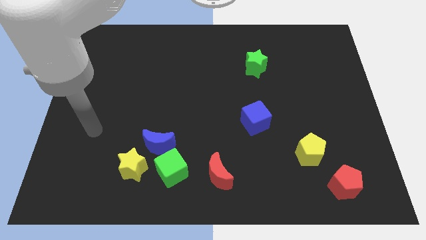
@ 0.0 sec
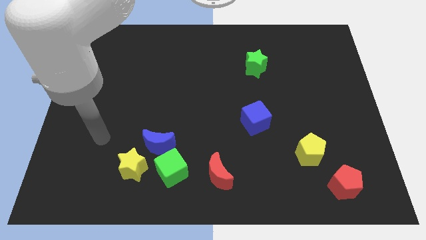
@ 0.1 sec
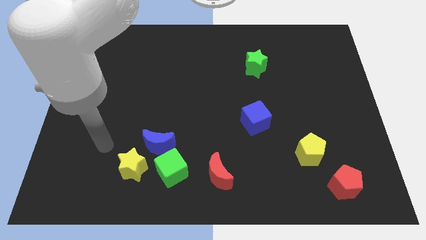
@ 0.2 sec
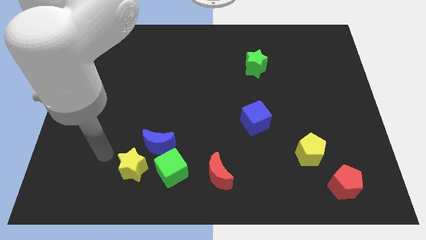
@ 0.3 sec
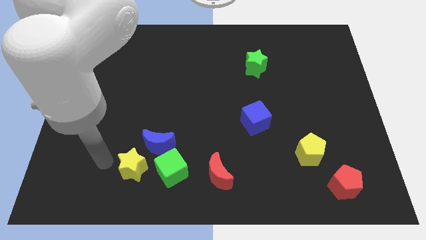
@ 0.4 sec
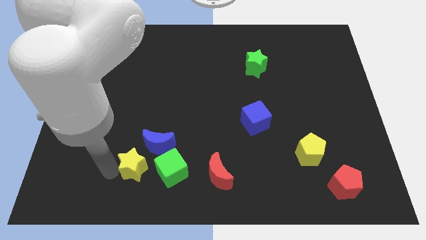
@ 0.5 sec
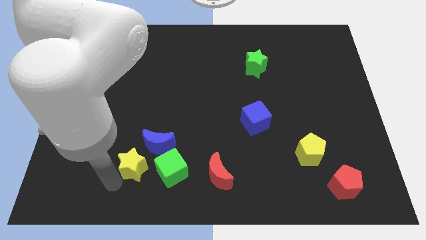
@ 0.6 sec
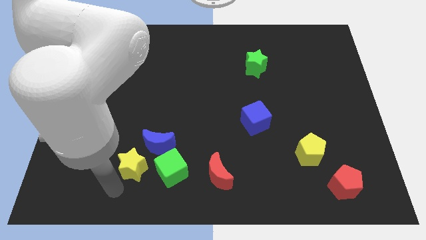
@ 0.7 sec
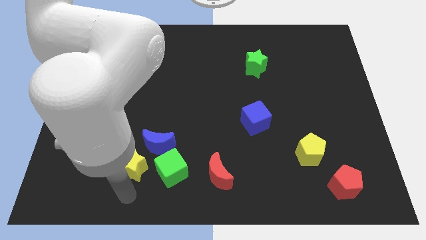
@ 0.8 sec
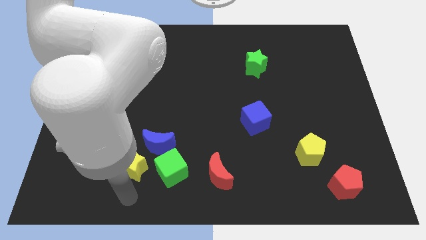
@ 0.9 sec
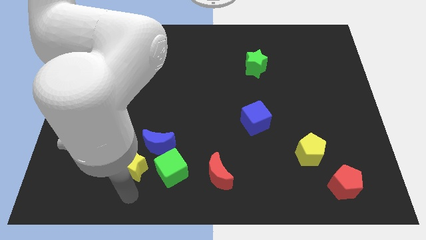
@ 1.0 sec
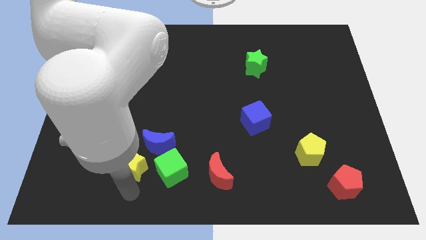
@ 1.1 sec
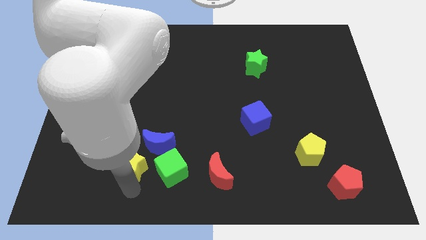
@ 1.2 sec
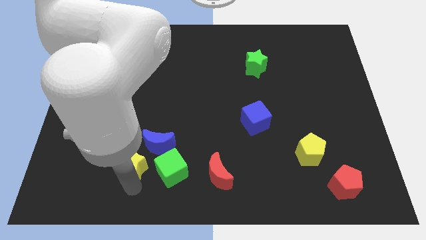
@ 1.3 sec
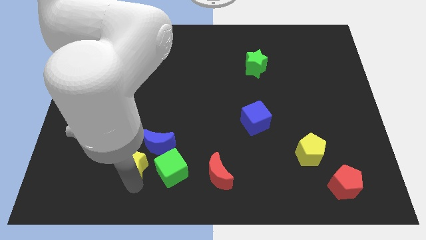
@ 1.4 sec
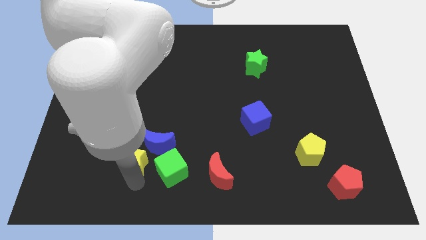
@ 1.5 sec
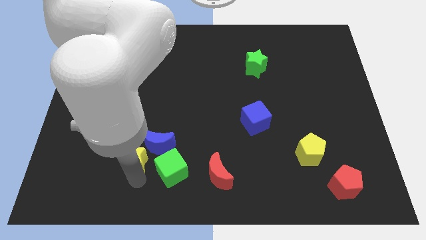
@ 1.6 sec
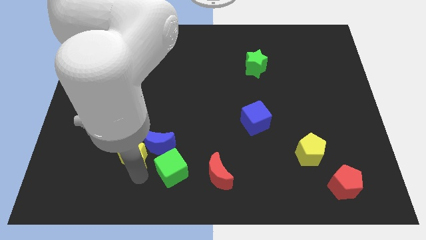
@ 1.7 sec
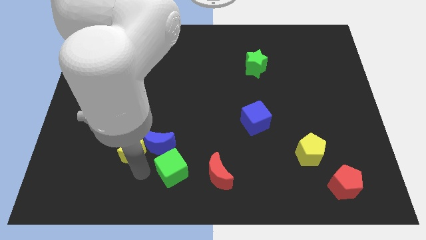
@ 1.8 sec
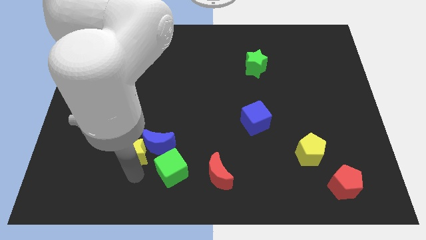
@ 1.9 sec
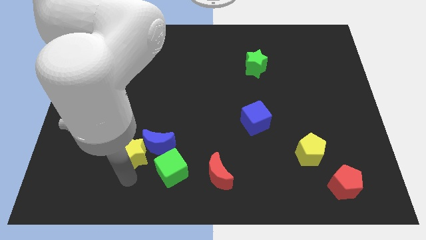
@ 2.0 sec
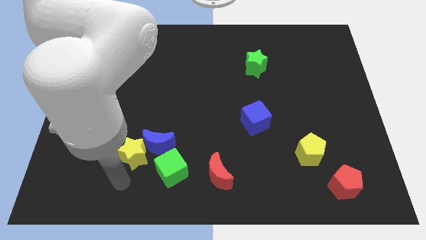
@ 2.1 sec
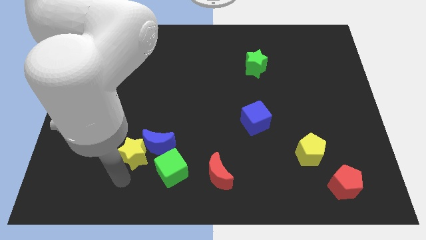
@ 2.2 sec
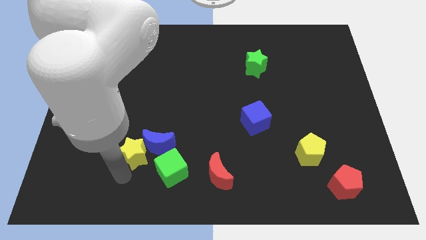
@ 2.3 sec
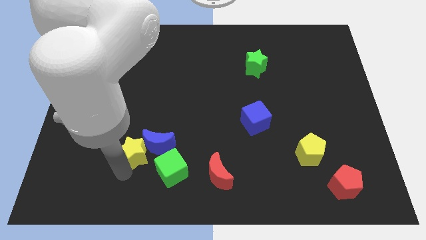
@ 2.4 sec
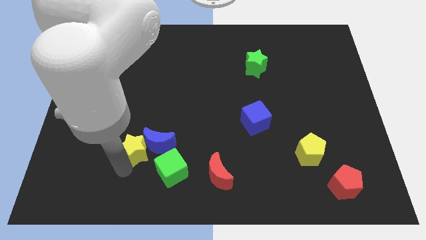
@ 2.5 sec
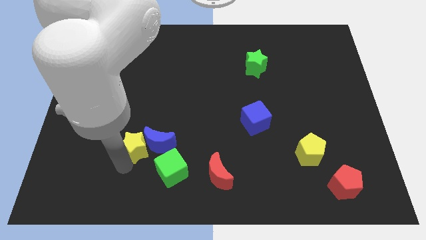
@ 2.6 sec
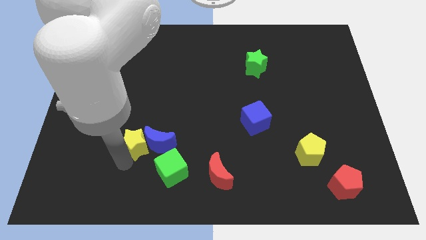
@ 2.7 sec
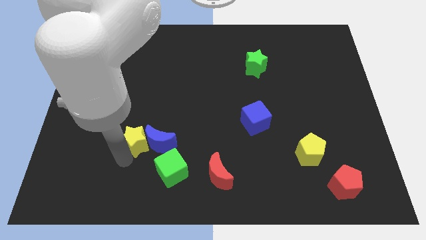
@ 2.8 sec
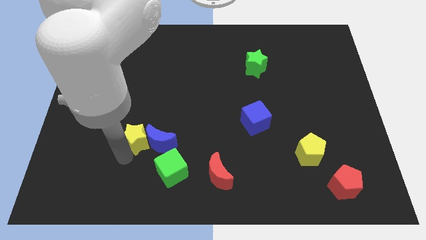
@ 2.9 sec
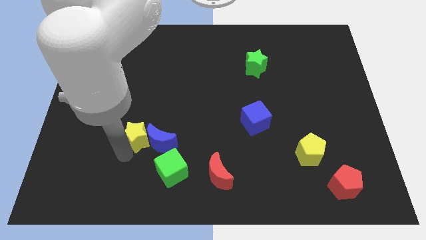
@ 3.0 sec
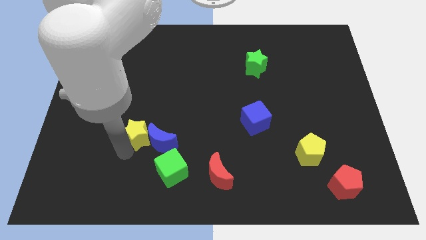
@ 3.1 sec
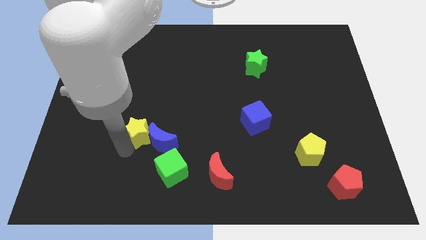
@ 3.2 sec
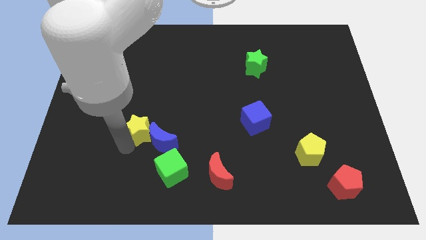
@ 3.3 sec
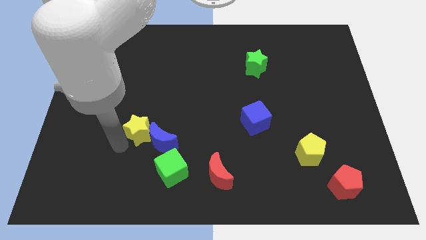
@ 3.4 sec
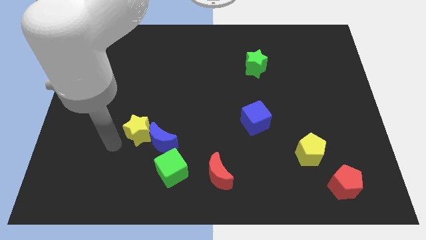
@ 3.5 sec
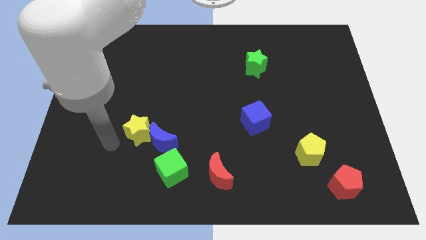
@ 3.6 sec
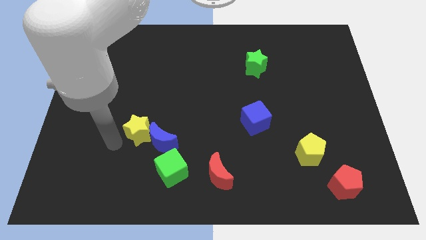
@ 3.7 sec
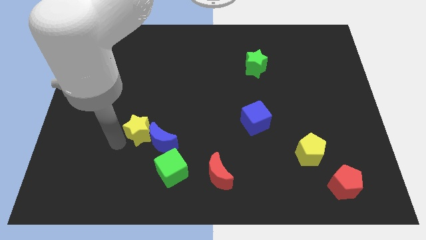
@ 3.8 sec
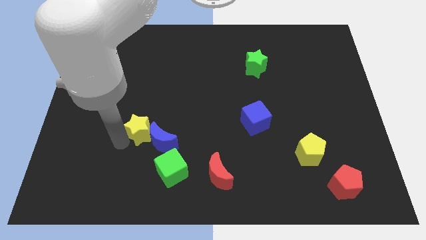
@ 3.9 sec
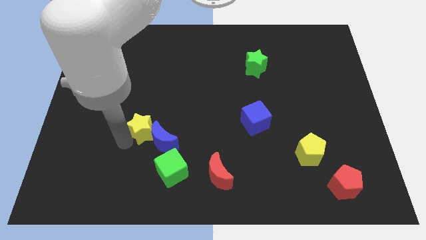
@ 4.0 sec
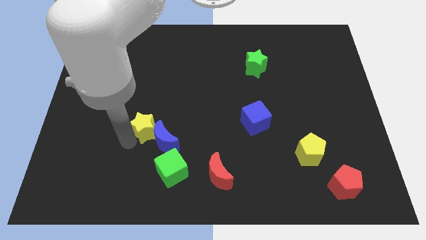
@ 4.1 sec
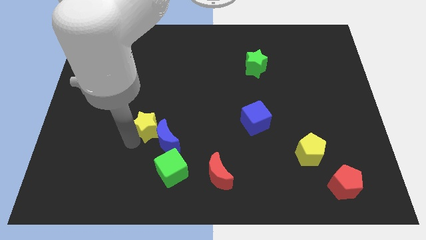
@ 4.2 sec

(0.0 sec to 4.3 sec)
move the yellow star somewhat upwards and right

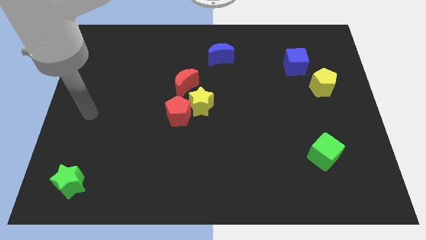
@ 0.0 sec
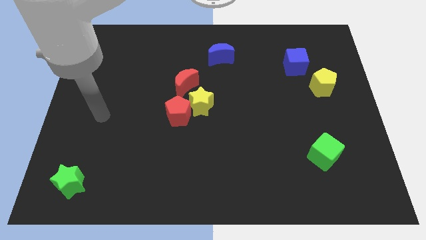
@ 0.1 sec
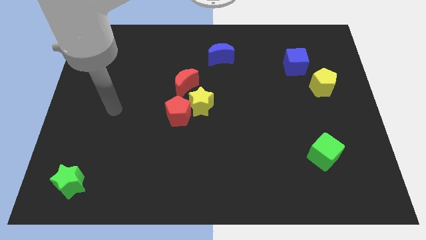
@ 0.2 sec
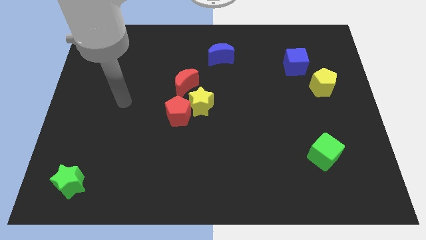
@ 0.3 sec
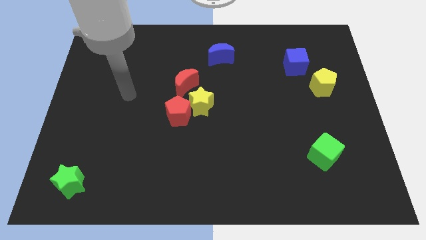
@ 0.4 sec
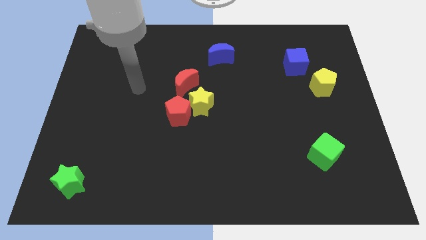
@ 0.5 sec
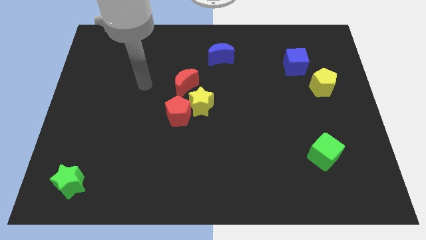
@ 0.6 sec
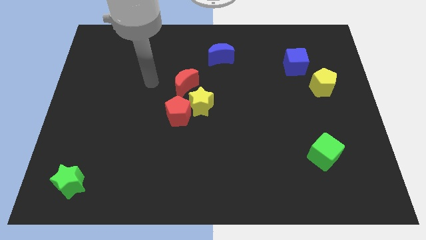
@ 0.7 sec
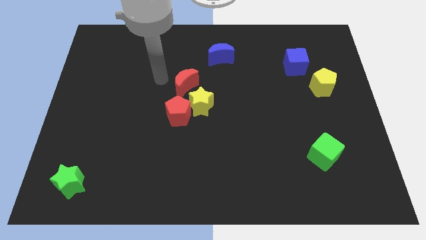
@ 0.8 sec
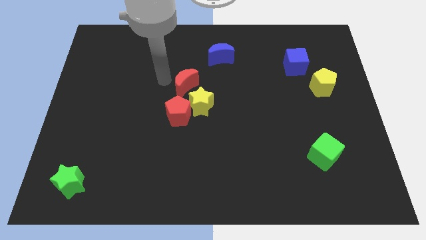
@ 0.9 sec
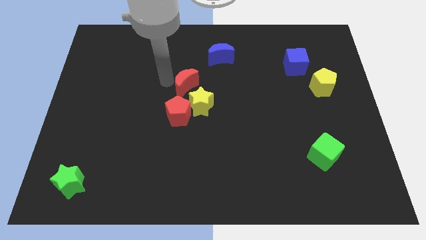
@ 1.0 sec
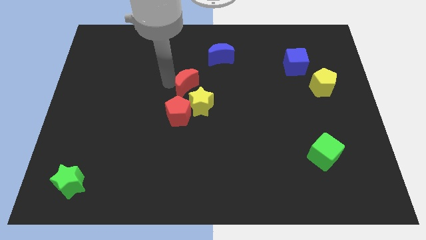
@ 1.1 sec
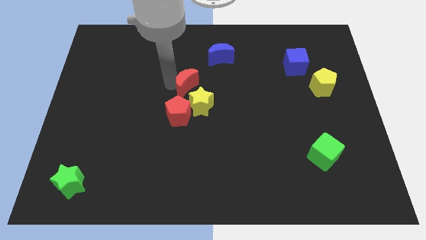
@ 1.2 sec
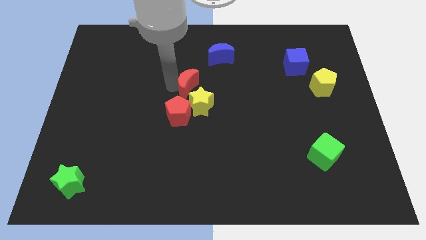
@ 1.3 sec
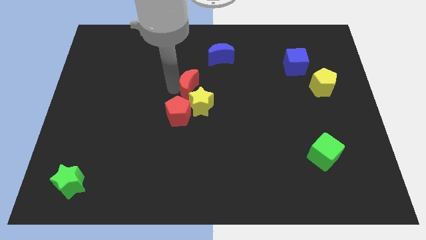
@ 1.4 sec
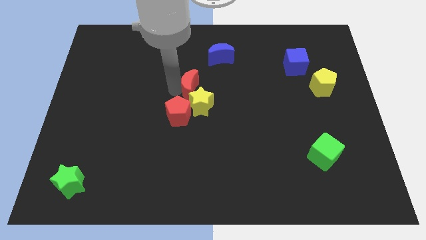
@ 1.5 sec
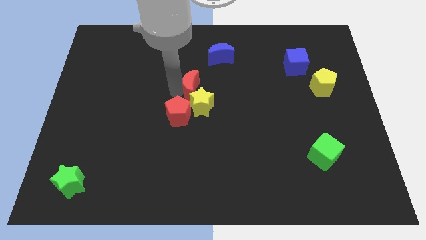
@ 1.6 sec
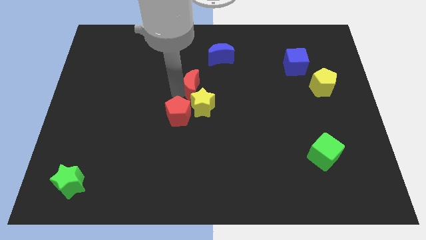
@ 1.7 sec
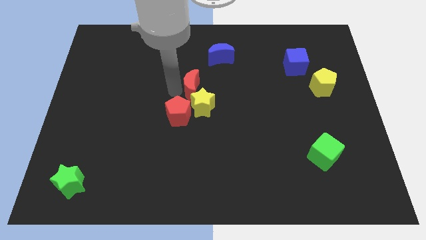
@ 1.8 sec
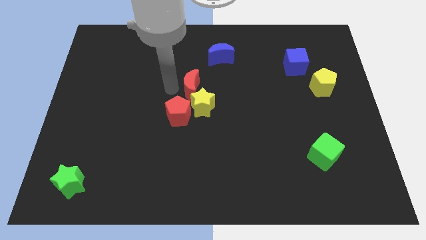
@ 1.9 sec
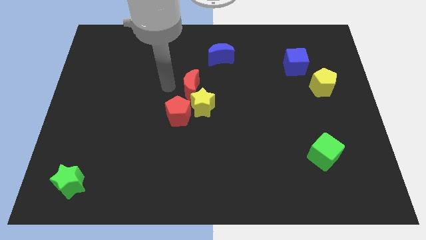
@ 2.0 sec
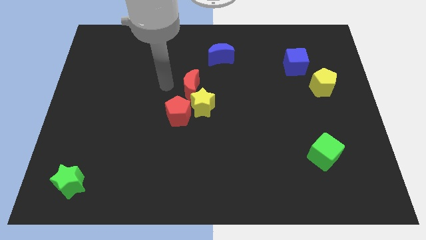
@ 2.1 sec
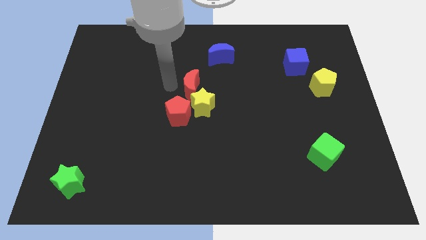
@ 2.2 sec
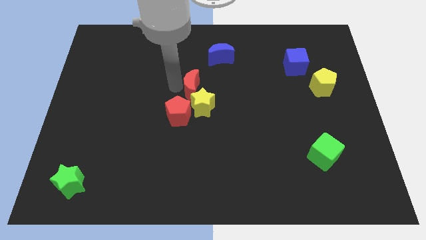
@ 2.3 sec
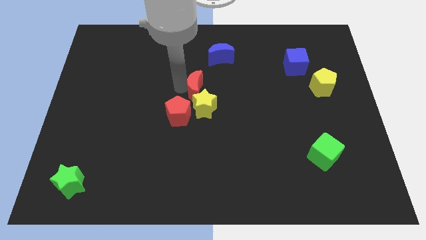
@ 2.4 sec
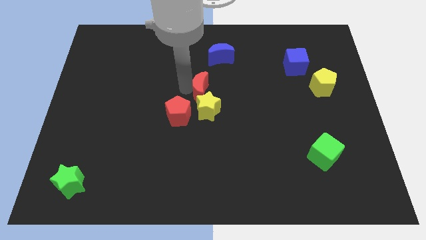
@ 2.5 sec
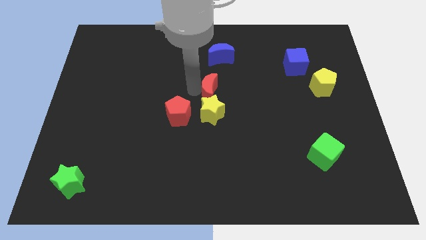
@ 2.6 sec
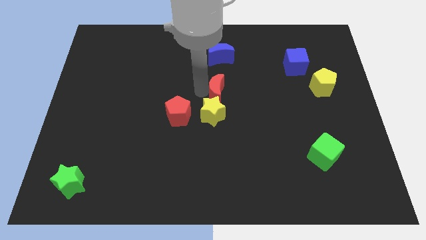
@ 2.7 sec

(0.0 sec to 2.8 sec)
slightly move the red moon down and to the right

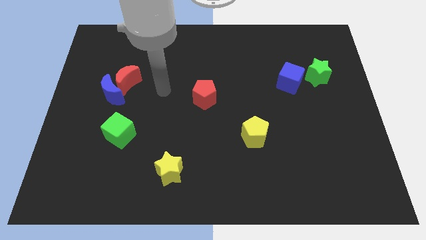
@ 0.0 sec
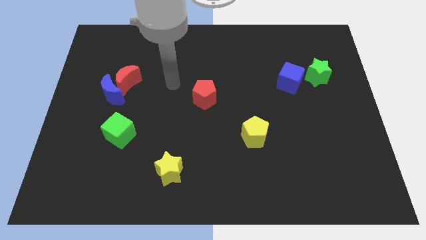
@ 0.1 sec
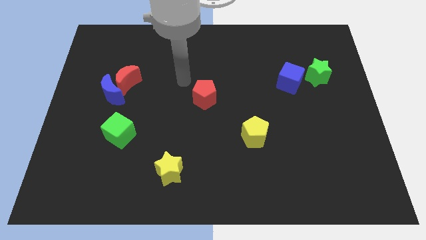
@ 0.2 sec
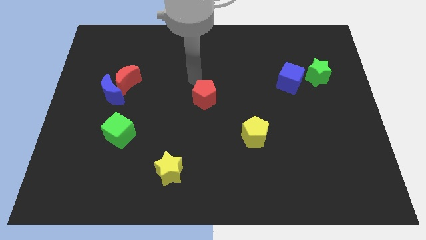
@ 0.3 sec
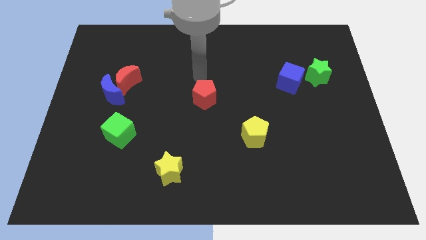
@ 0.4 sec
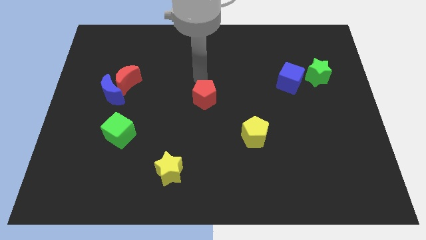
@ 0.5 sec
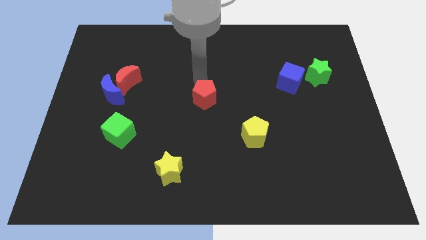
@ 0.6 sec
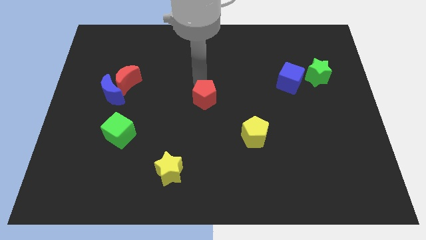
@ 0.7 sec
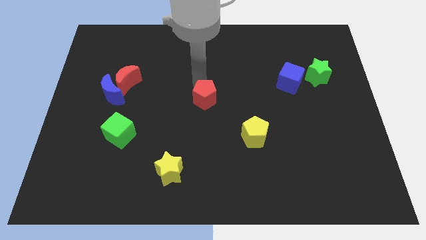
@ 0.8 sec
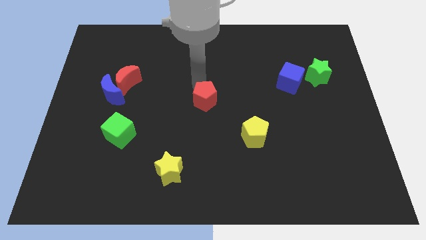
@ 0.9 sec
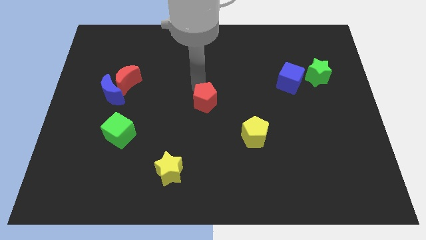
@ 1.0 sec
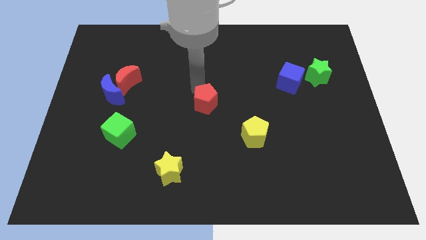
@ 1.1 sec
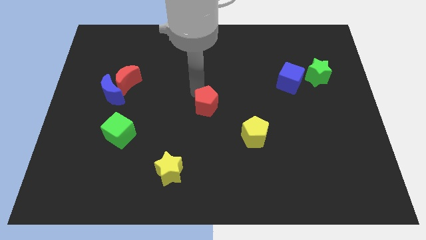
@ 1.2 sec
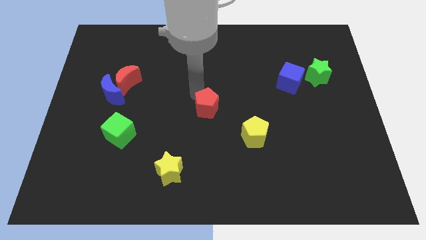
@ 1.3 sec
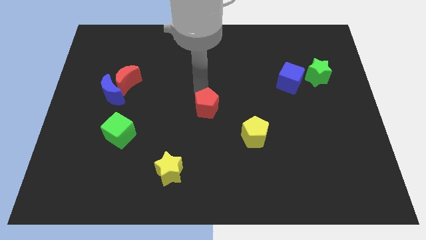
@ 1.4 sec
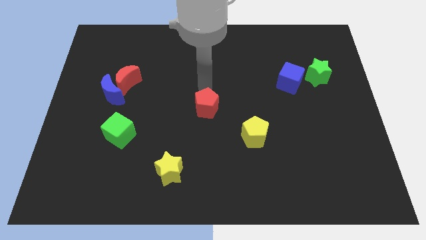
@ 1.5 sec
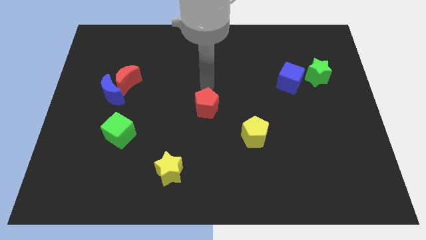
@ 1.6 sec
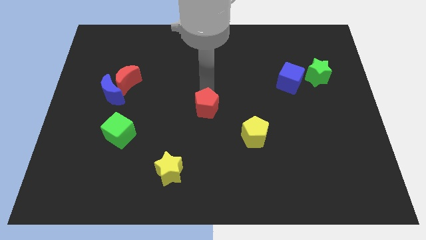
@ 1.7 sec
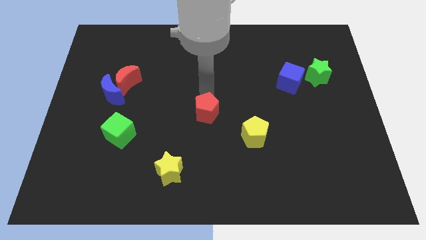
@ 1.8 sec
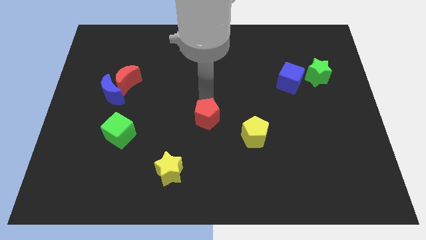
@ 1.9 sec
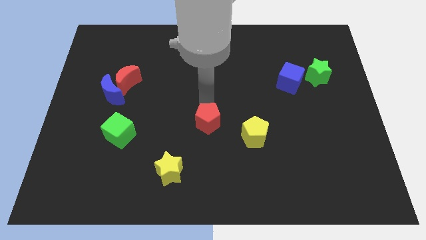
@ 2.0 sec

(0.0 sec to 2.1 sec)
slightly slide the red pentagon down
